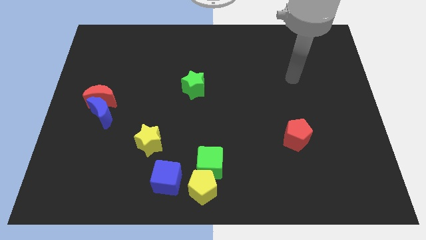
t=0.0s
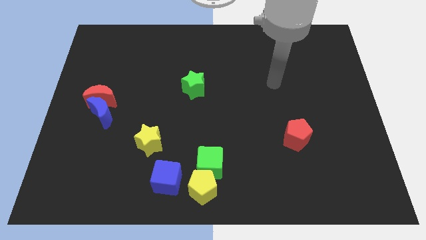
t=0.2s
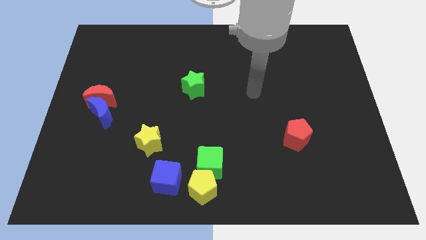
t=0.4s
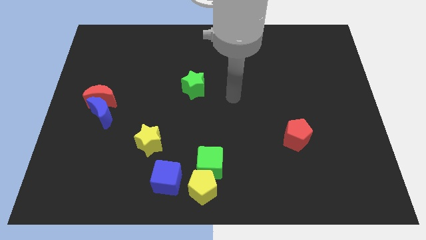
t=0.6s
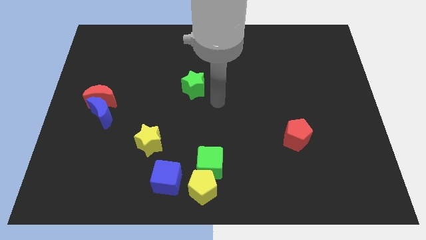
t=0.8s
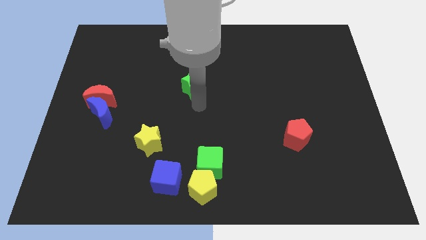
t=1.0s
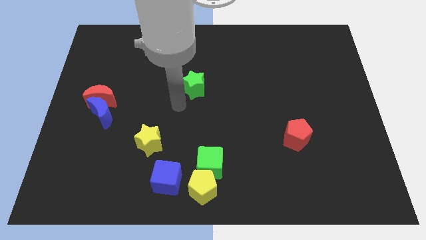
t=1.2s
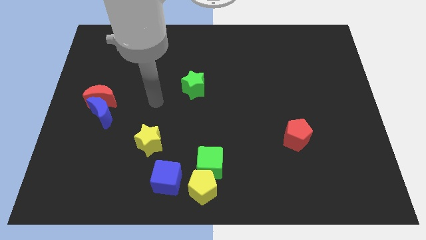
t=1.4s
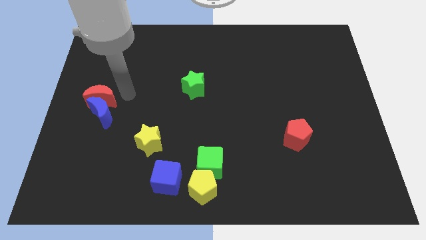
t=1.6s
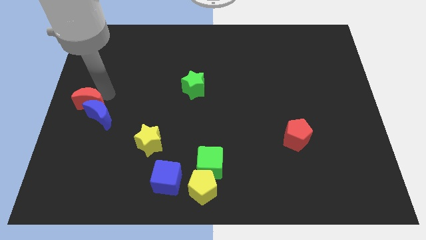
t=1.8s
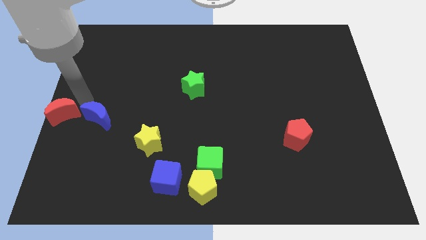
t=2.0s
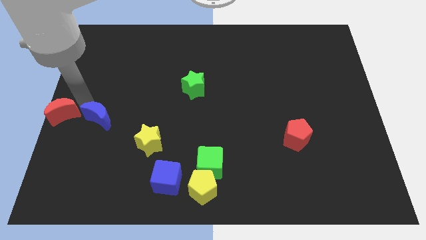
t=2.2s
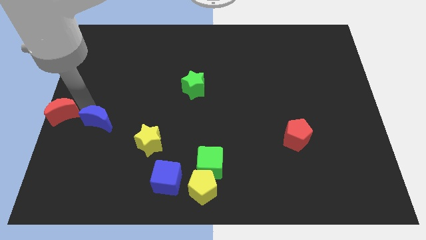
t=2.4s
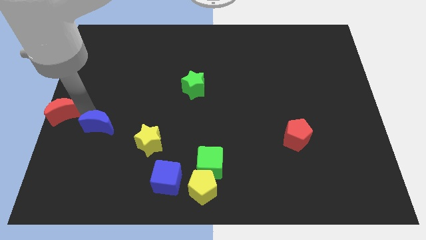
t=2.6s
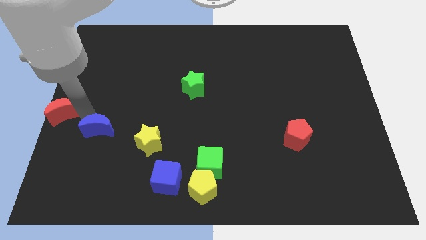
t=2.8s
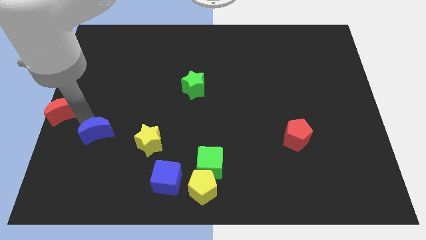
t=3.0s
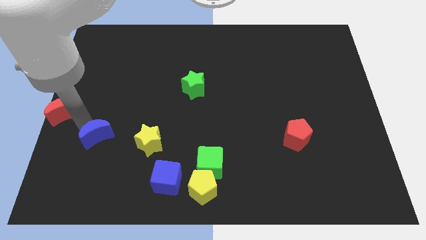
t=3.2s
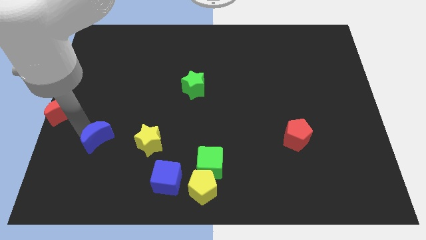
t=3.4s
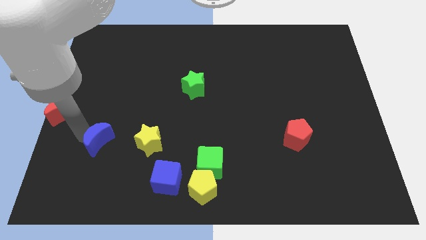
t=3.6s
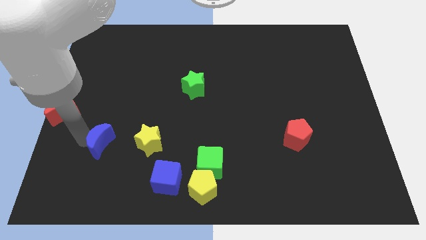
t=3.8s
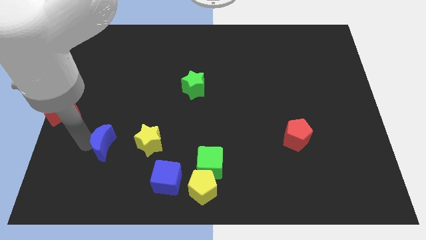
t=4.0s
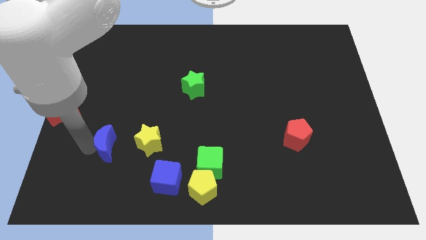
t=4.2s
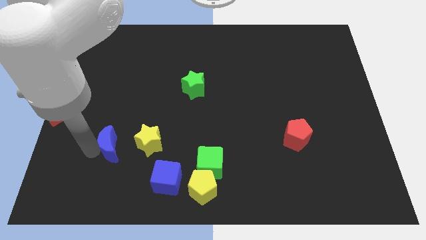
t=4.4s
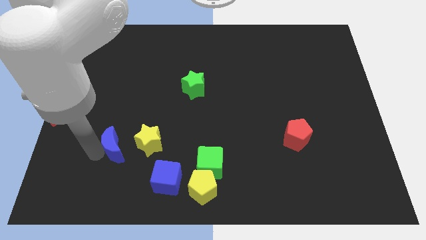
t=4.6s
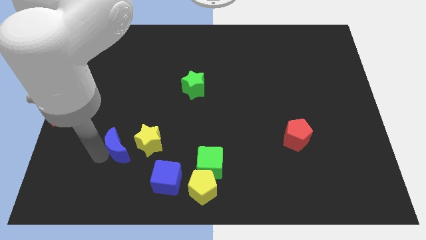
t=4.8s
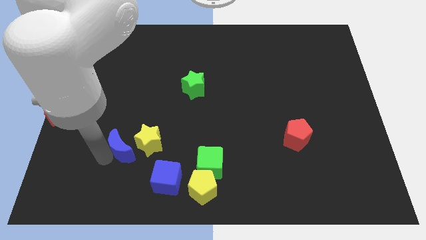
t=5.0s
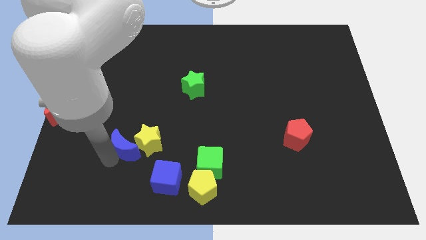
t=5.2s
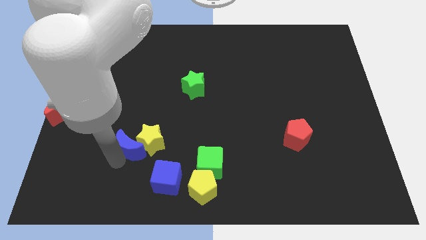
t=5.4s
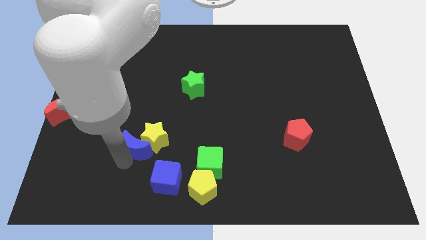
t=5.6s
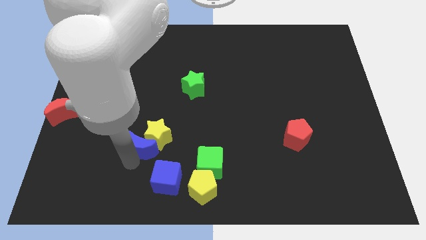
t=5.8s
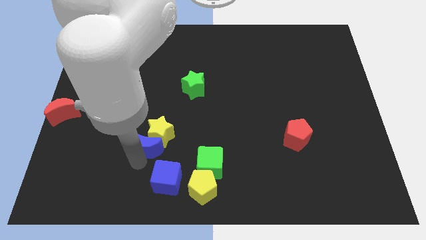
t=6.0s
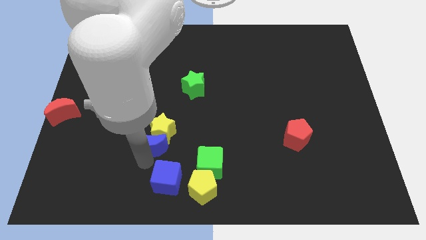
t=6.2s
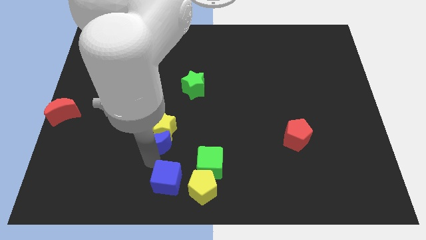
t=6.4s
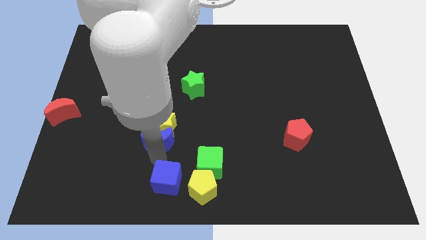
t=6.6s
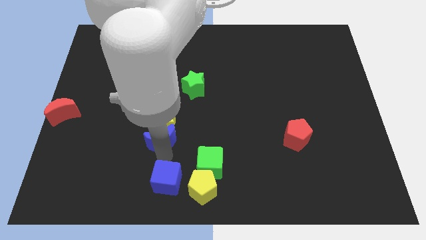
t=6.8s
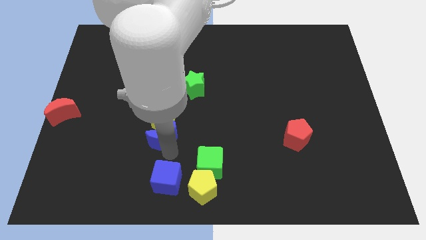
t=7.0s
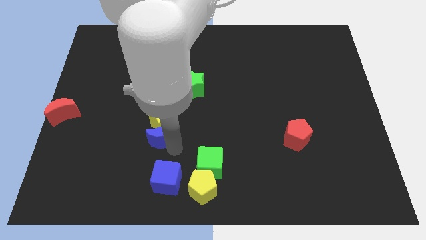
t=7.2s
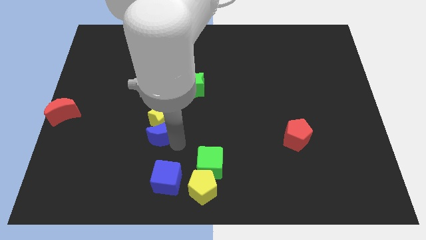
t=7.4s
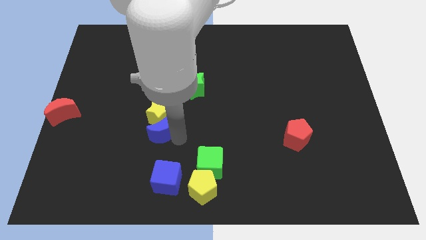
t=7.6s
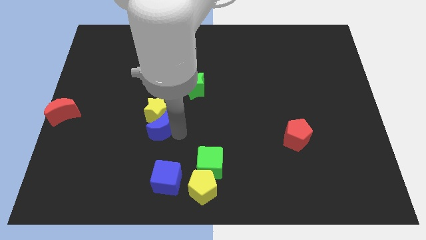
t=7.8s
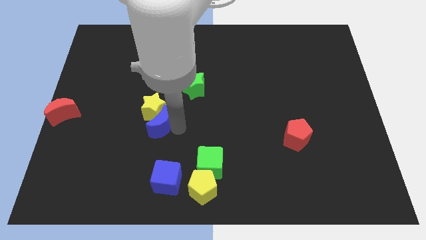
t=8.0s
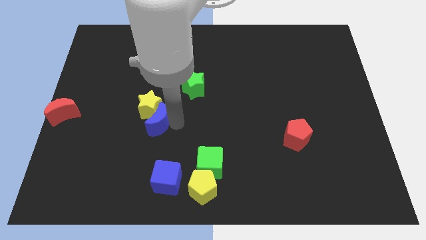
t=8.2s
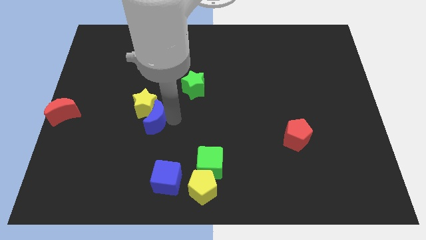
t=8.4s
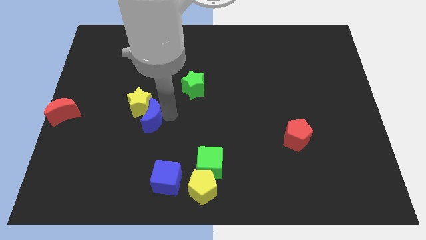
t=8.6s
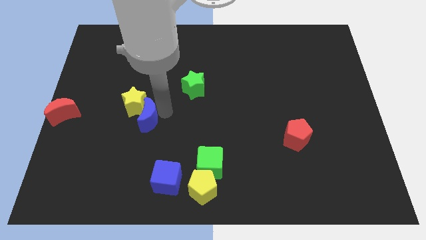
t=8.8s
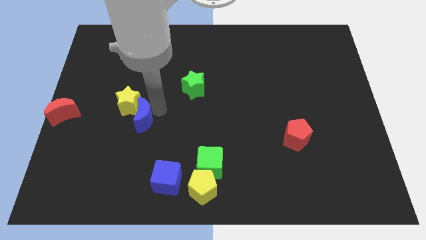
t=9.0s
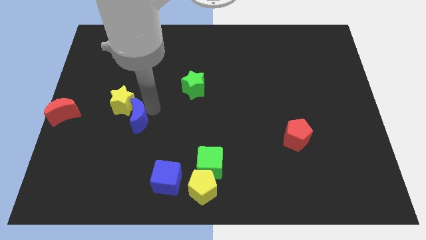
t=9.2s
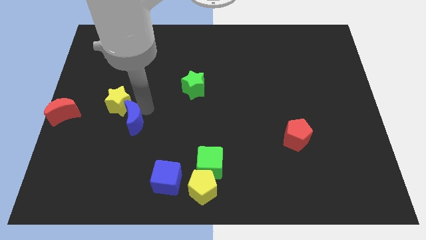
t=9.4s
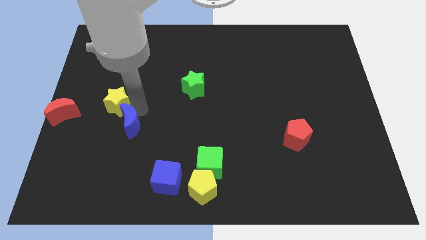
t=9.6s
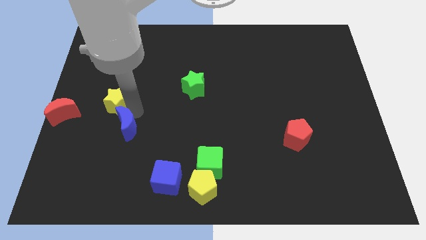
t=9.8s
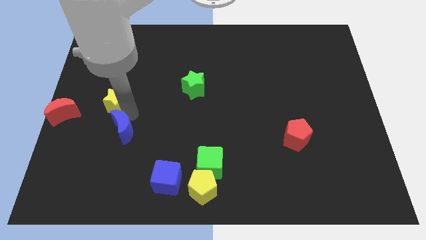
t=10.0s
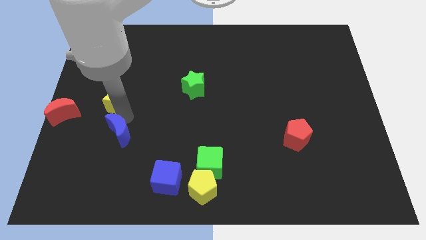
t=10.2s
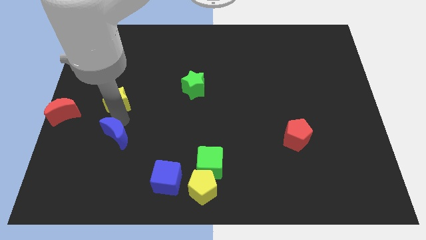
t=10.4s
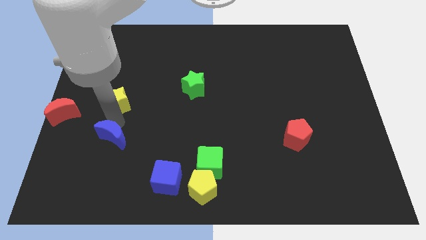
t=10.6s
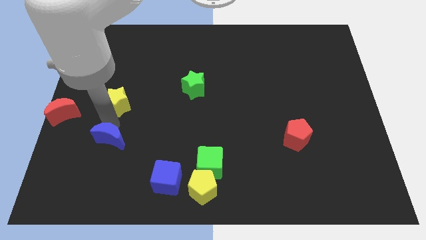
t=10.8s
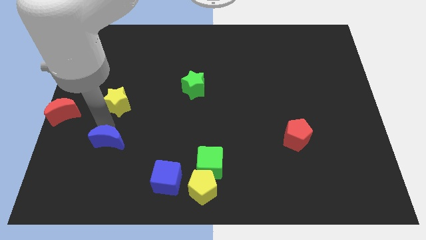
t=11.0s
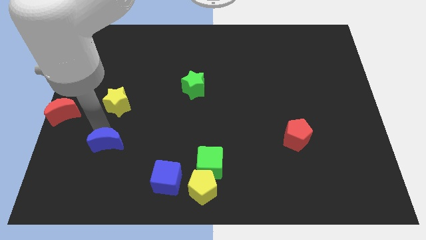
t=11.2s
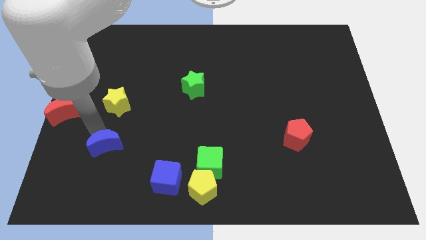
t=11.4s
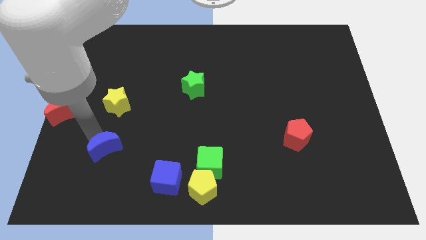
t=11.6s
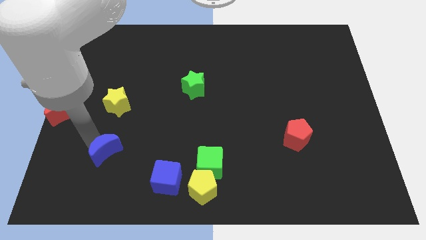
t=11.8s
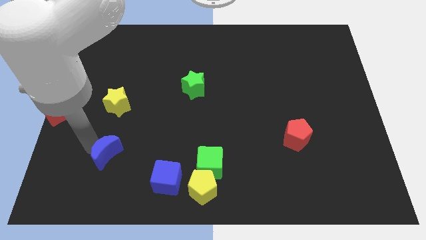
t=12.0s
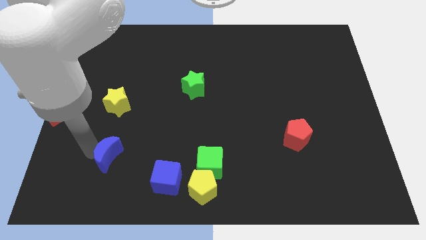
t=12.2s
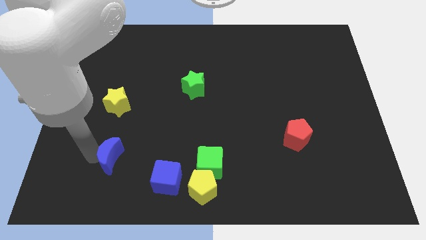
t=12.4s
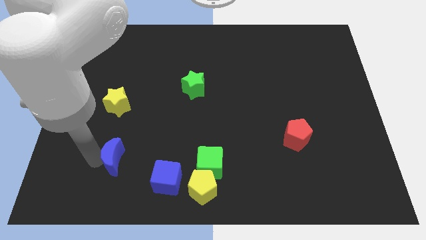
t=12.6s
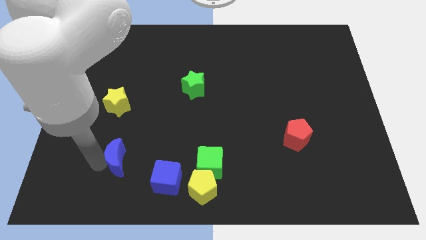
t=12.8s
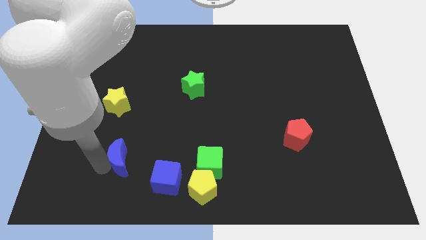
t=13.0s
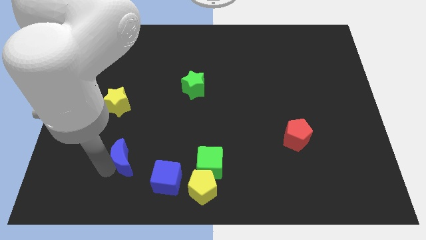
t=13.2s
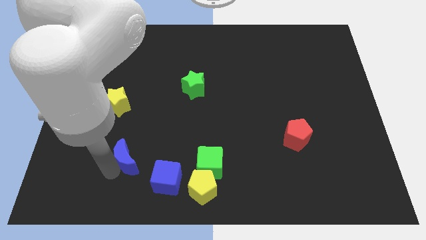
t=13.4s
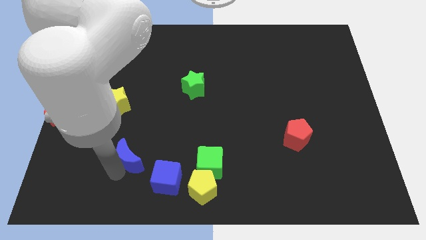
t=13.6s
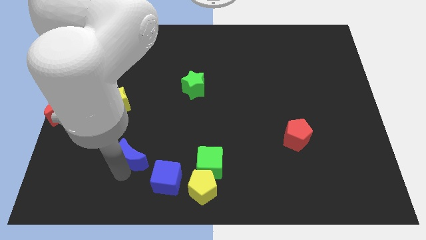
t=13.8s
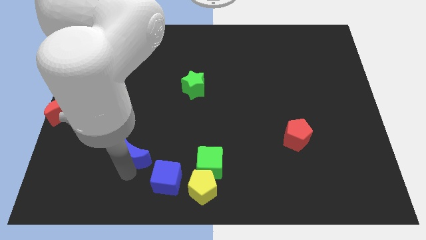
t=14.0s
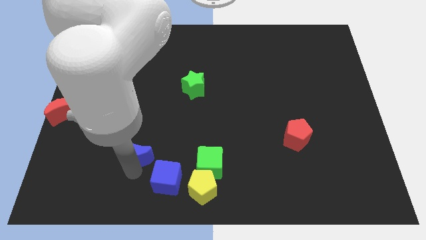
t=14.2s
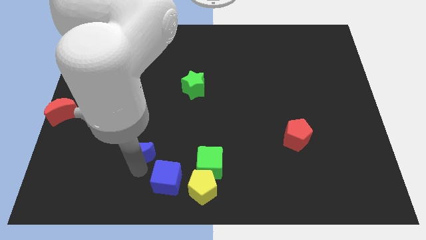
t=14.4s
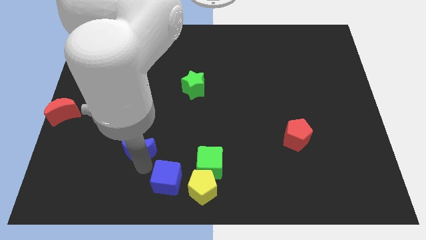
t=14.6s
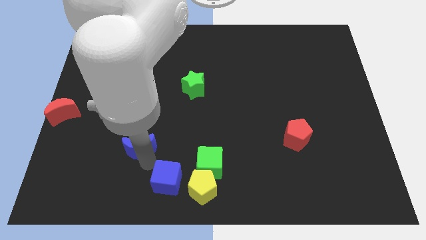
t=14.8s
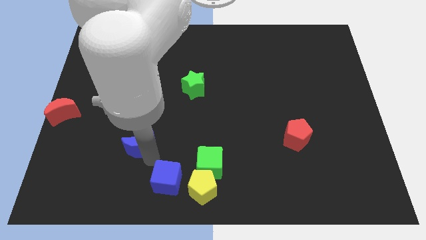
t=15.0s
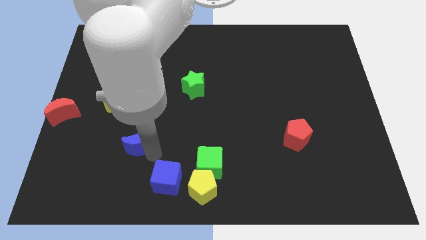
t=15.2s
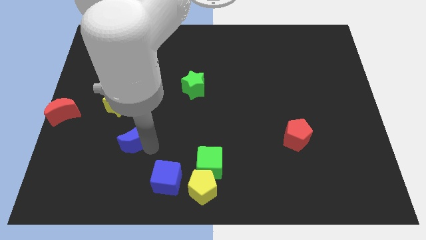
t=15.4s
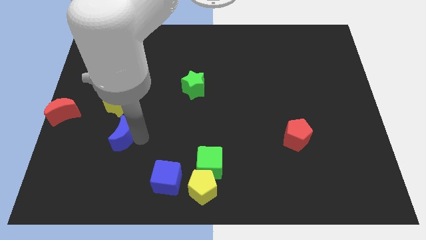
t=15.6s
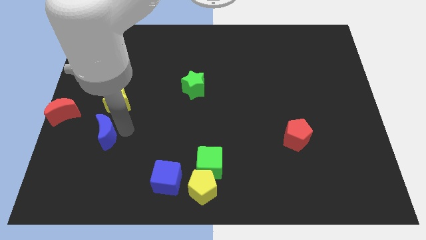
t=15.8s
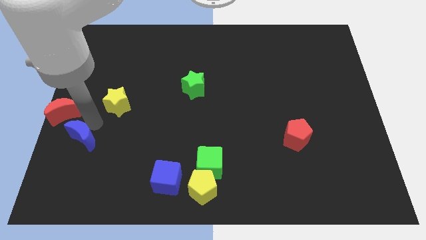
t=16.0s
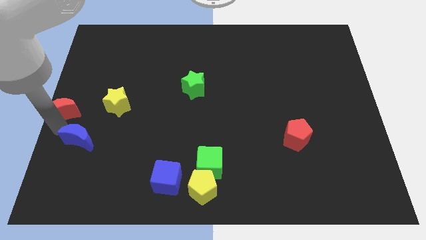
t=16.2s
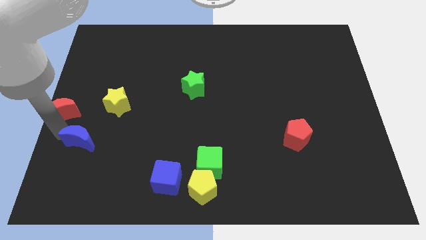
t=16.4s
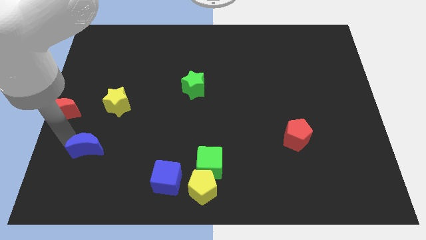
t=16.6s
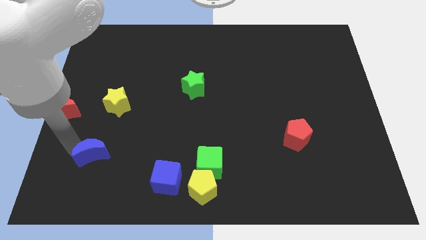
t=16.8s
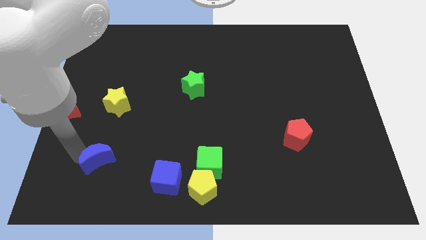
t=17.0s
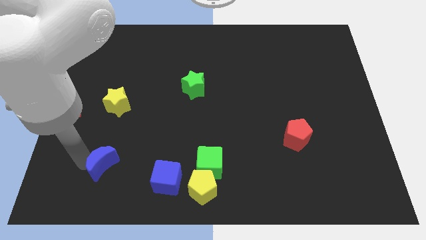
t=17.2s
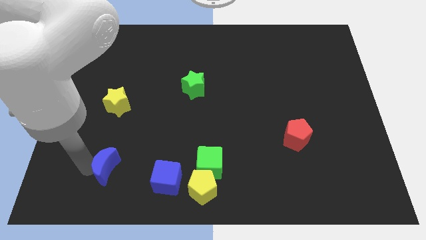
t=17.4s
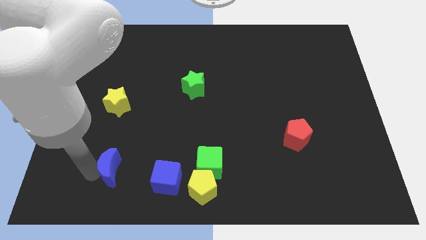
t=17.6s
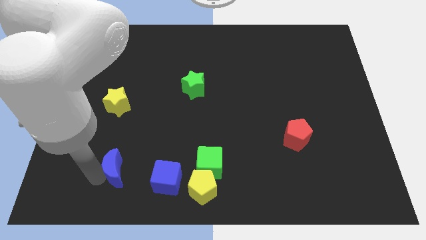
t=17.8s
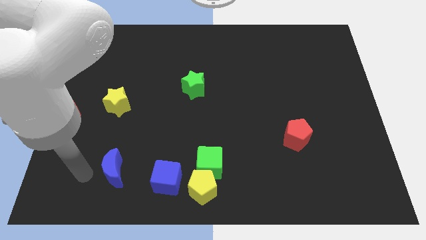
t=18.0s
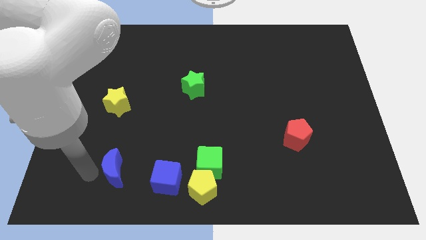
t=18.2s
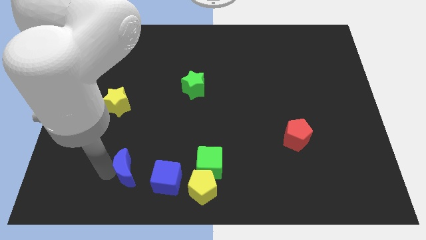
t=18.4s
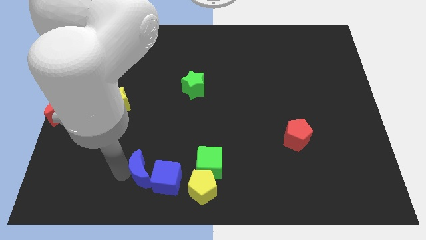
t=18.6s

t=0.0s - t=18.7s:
push the blue moon next to the blue cube
